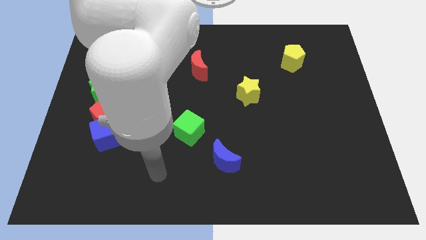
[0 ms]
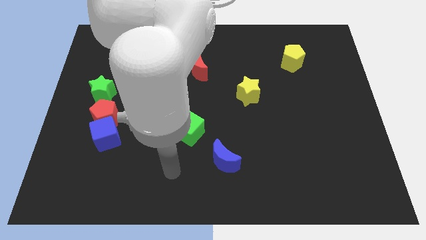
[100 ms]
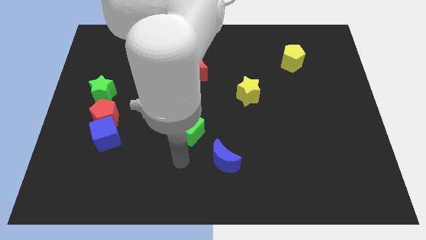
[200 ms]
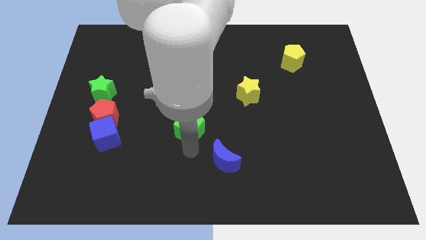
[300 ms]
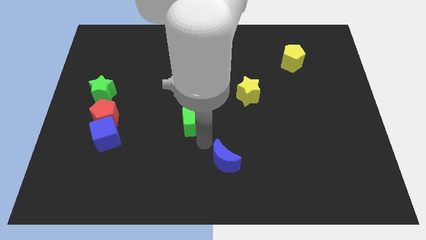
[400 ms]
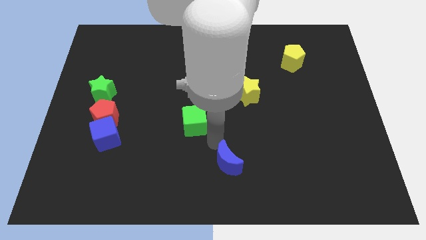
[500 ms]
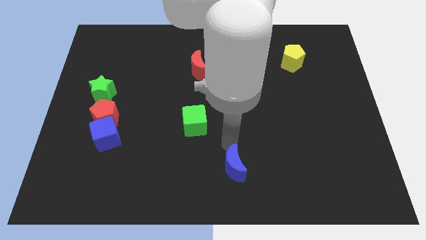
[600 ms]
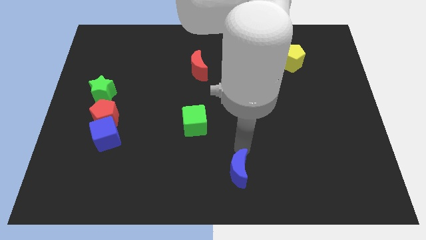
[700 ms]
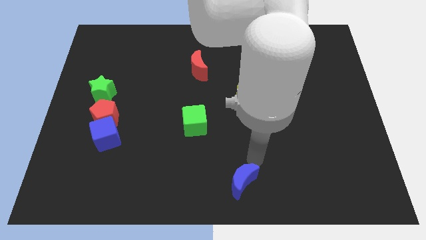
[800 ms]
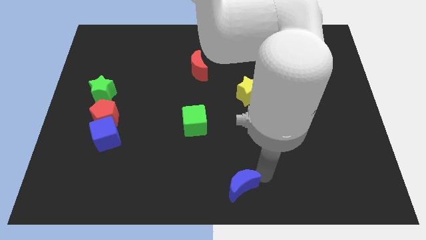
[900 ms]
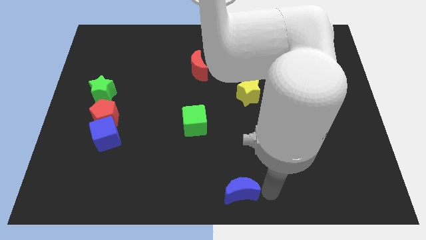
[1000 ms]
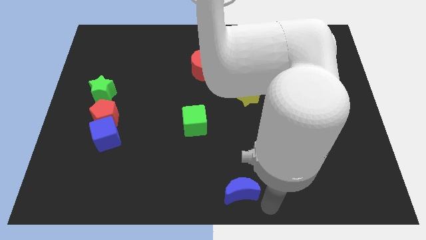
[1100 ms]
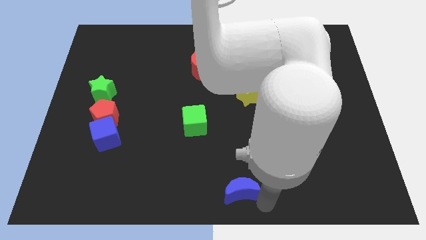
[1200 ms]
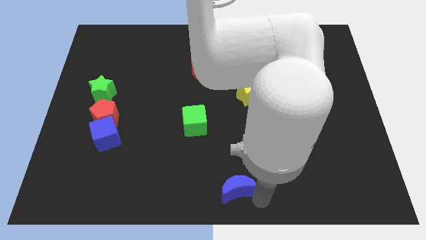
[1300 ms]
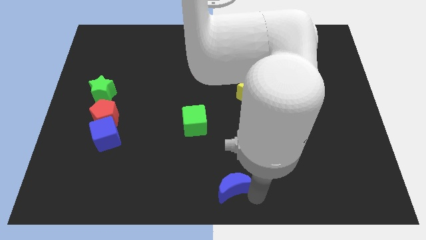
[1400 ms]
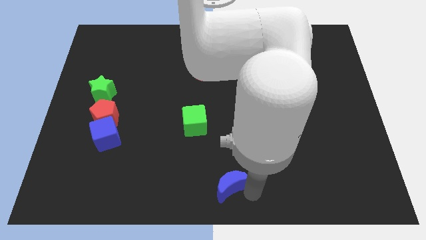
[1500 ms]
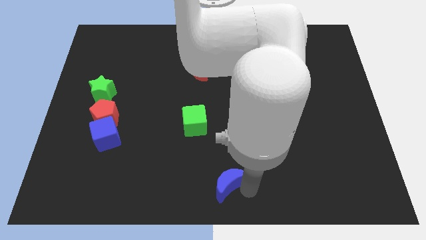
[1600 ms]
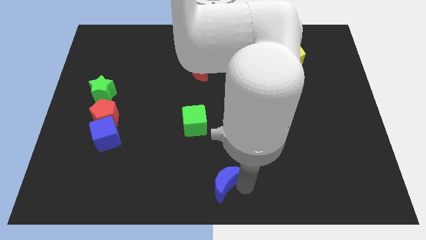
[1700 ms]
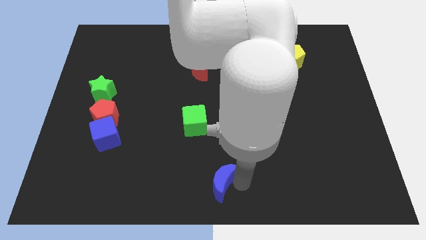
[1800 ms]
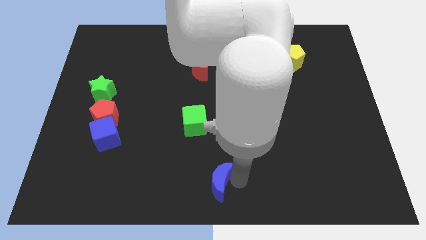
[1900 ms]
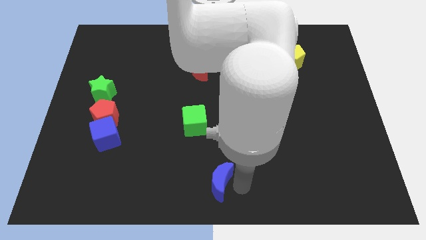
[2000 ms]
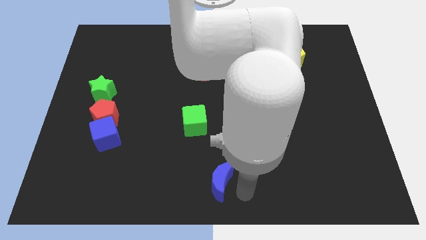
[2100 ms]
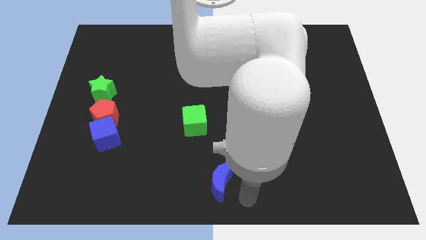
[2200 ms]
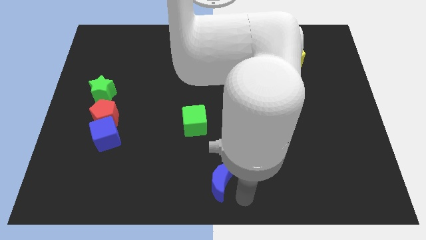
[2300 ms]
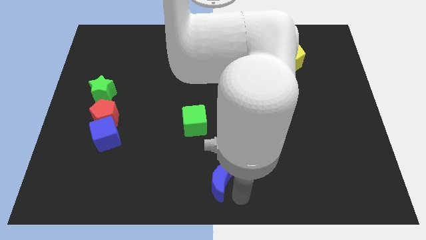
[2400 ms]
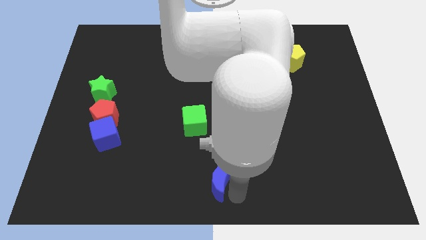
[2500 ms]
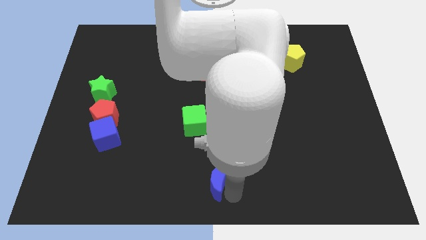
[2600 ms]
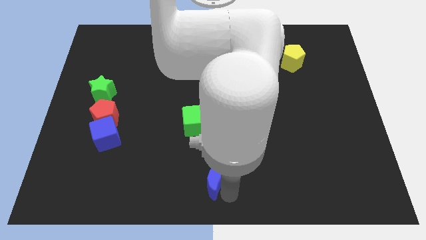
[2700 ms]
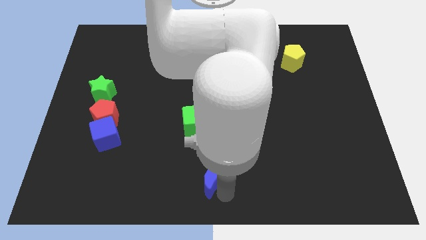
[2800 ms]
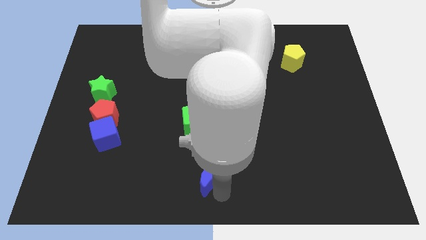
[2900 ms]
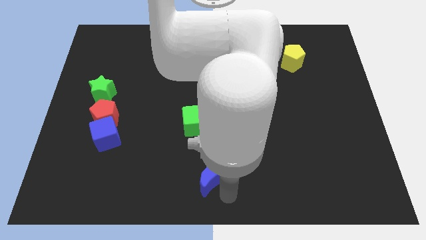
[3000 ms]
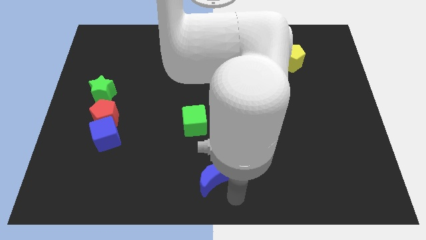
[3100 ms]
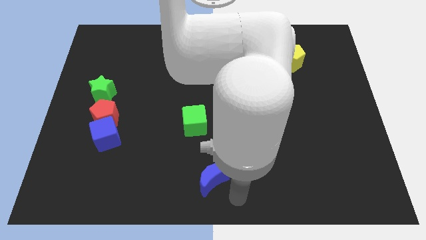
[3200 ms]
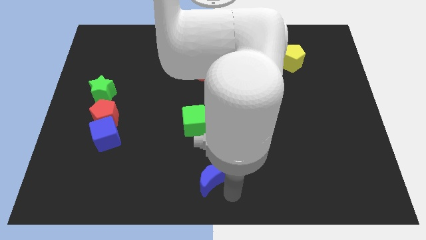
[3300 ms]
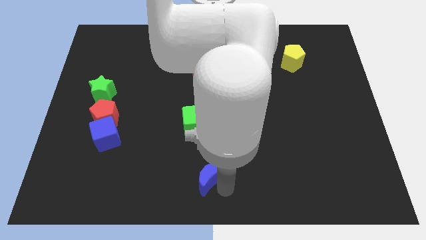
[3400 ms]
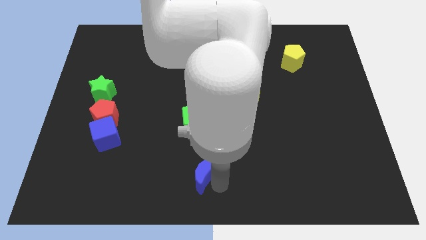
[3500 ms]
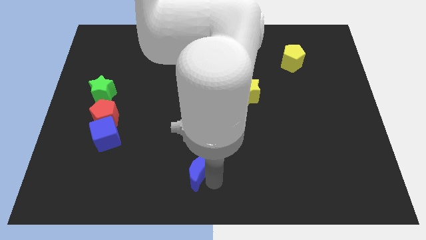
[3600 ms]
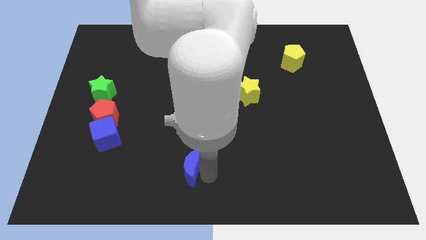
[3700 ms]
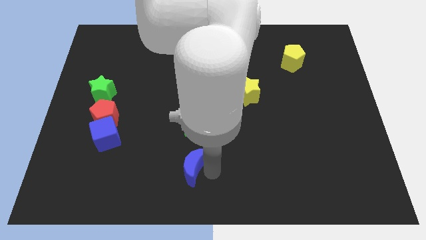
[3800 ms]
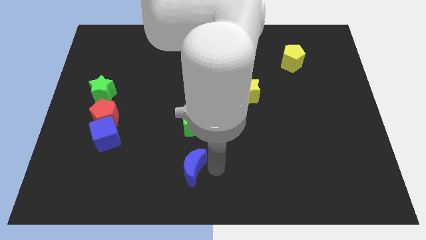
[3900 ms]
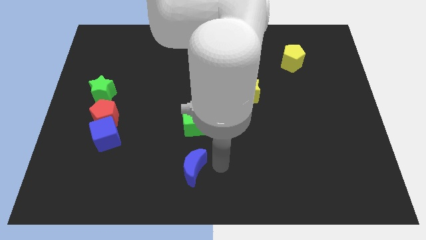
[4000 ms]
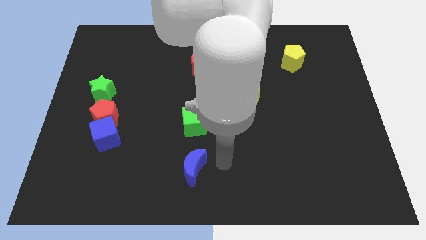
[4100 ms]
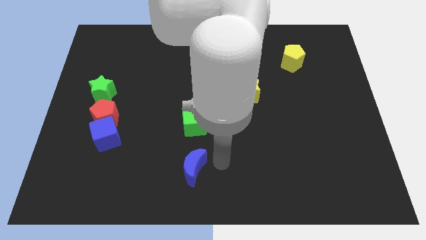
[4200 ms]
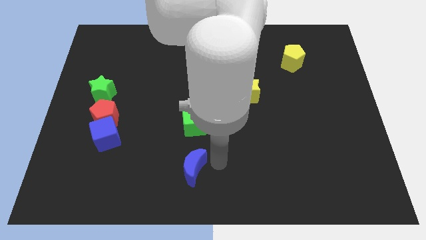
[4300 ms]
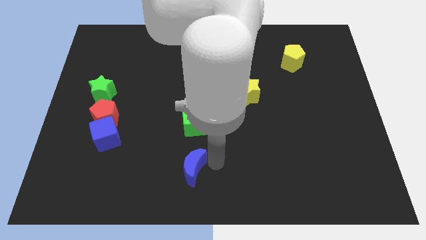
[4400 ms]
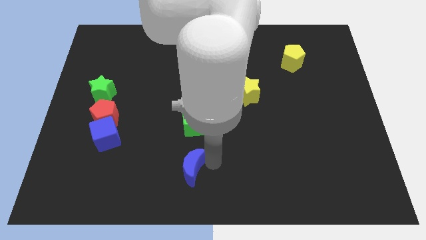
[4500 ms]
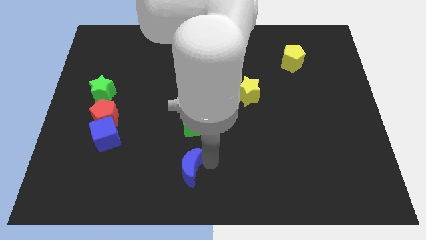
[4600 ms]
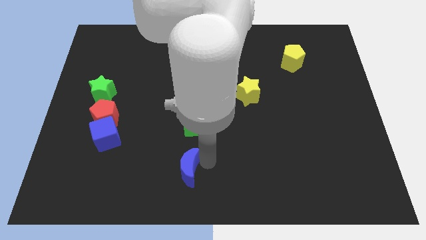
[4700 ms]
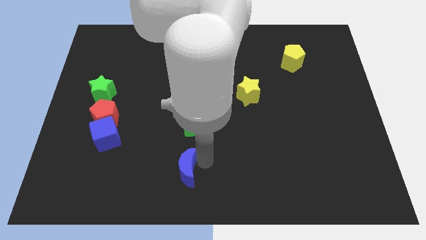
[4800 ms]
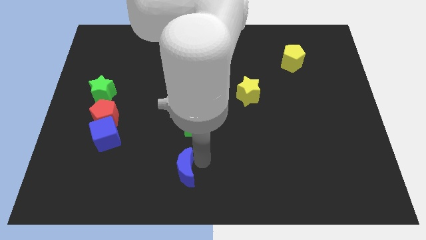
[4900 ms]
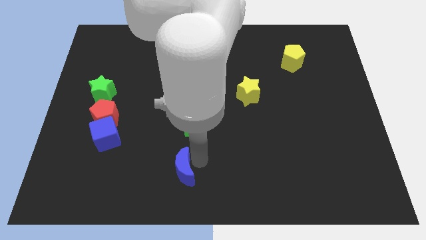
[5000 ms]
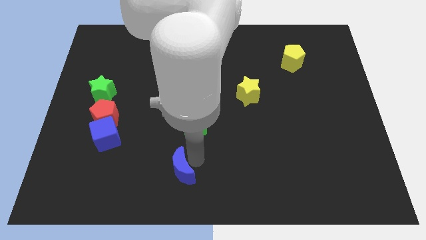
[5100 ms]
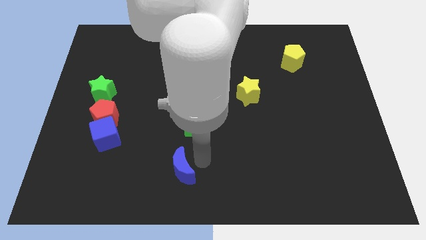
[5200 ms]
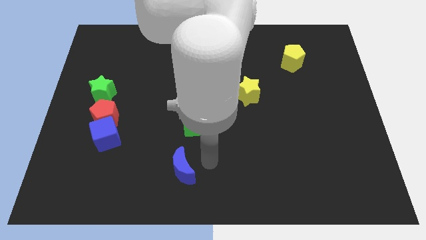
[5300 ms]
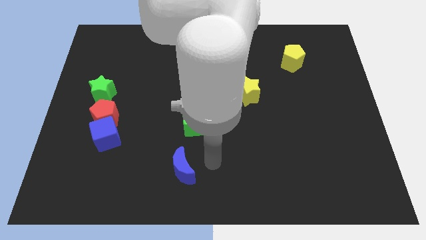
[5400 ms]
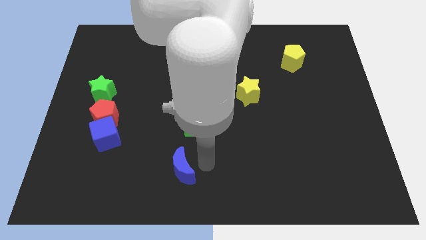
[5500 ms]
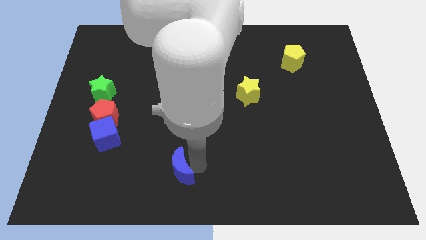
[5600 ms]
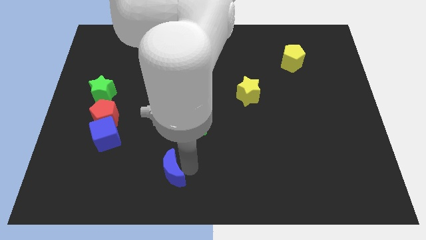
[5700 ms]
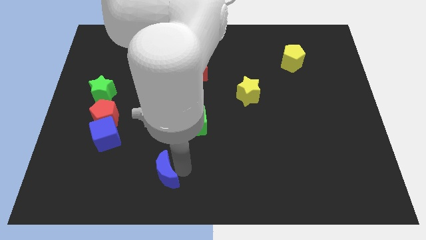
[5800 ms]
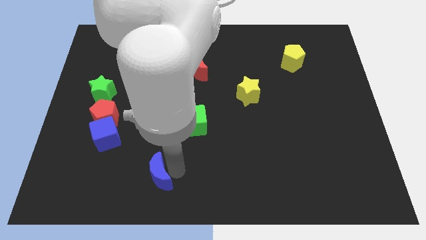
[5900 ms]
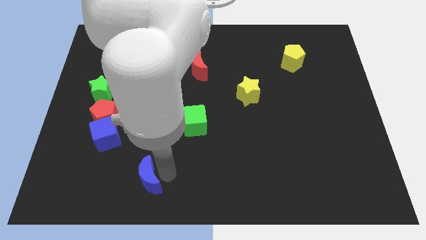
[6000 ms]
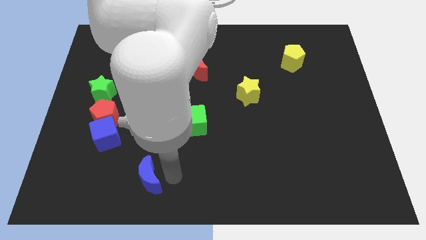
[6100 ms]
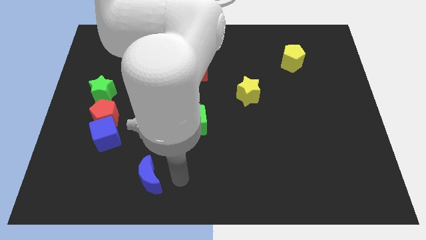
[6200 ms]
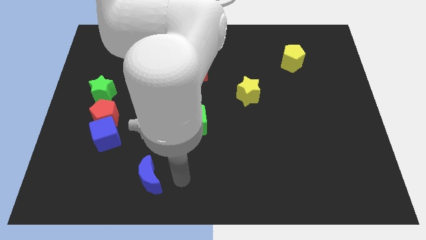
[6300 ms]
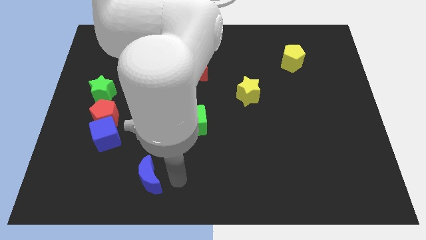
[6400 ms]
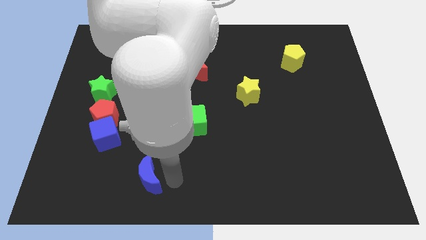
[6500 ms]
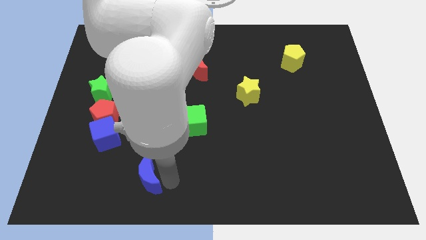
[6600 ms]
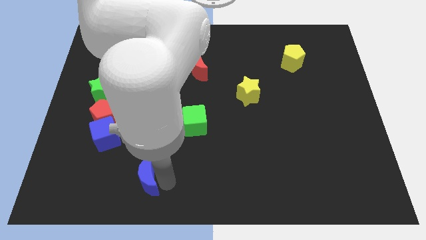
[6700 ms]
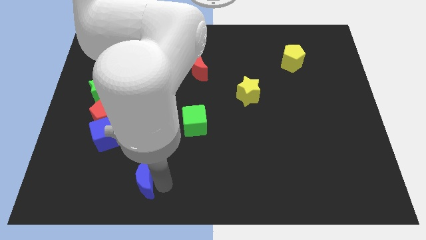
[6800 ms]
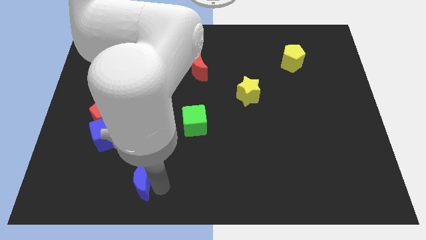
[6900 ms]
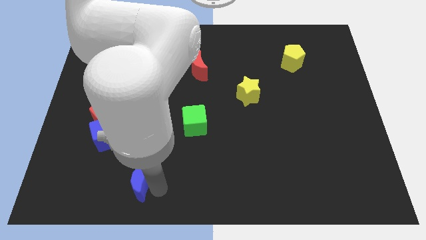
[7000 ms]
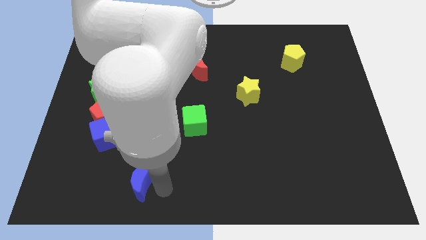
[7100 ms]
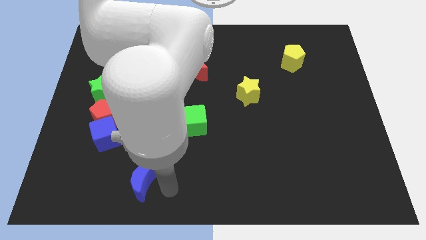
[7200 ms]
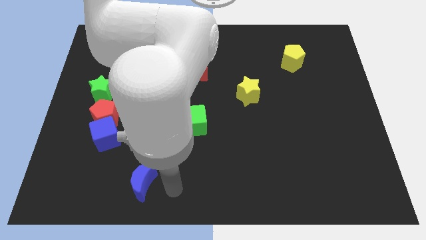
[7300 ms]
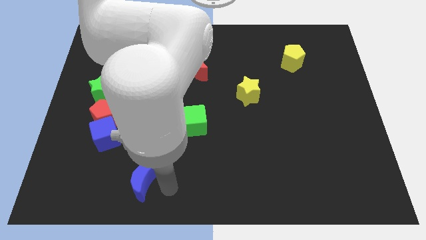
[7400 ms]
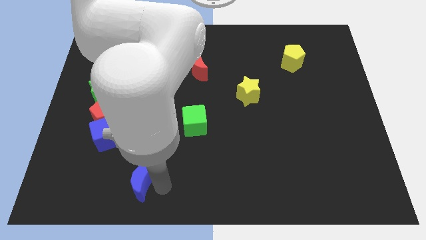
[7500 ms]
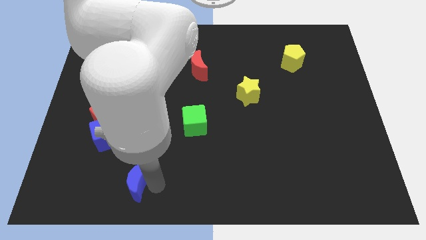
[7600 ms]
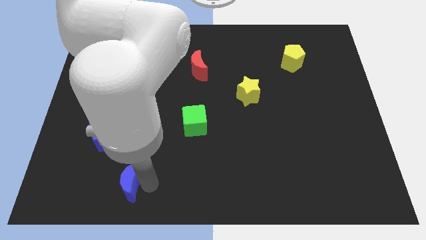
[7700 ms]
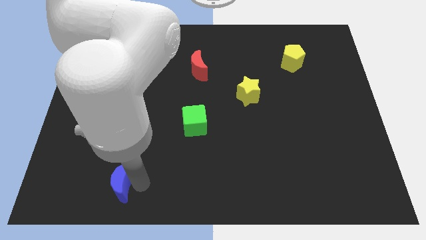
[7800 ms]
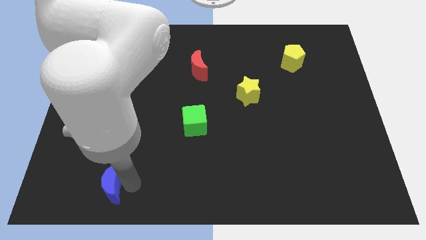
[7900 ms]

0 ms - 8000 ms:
put the blue moon to the bottom side of the blue cube
